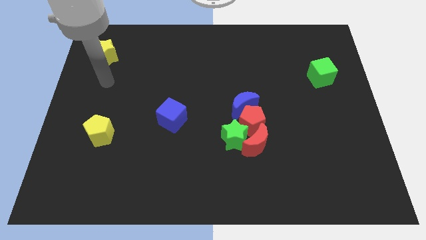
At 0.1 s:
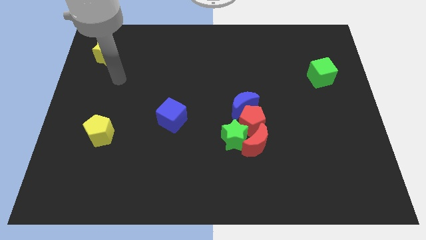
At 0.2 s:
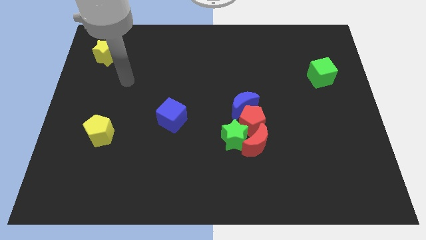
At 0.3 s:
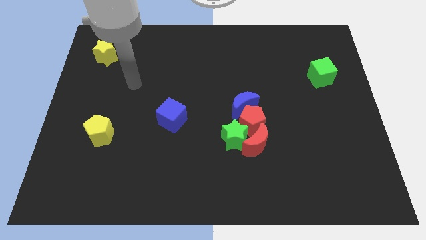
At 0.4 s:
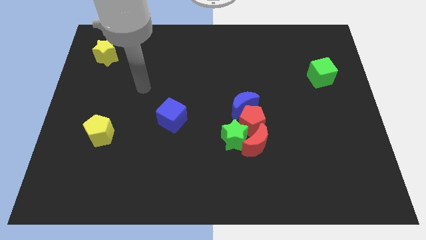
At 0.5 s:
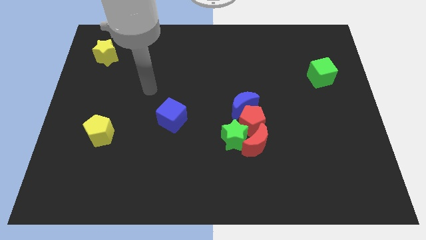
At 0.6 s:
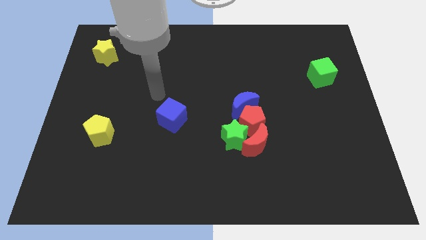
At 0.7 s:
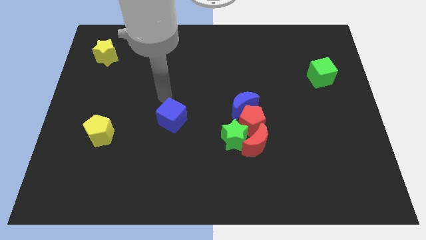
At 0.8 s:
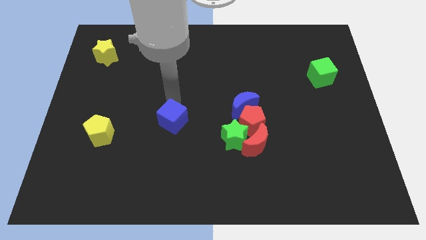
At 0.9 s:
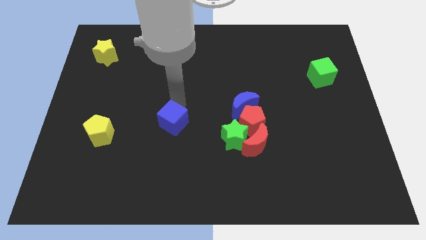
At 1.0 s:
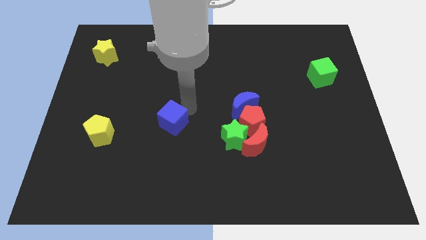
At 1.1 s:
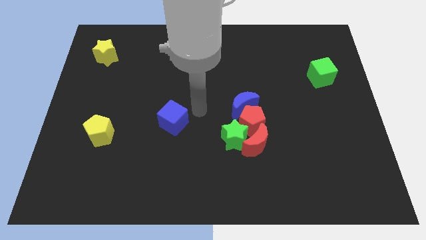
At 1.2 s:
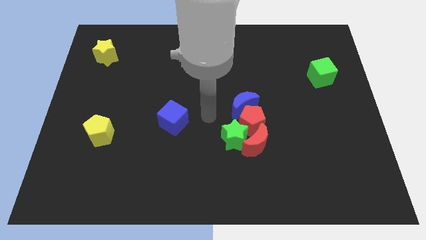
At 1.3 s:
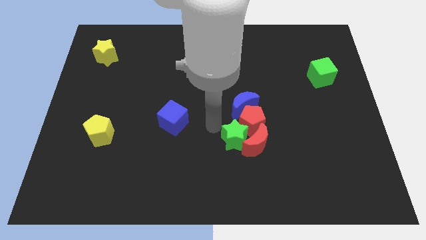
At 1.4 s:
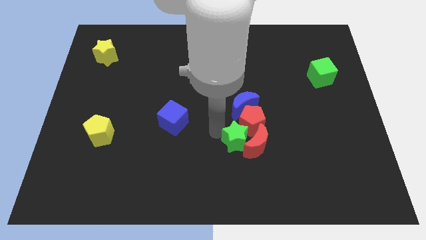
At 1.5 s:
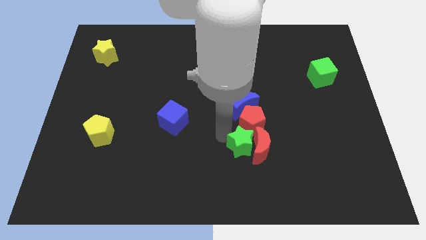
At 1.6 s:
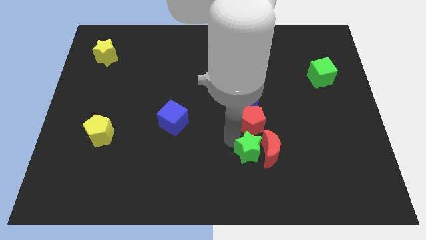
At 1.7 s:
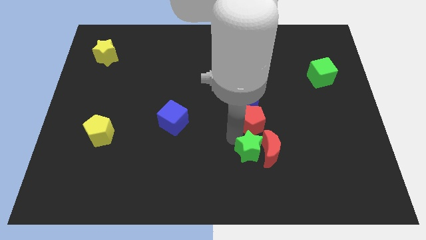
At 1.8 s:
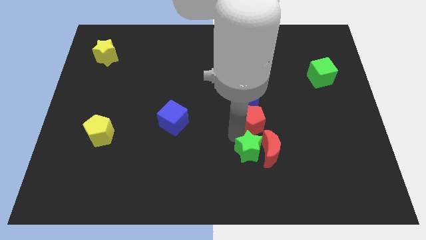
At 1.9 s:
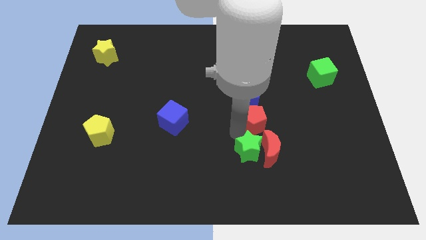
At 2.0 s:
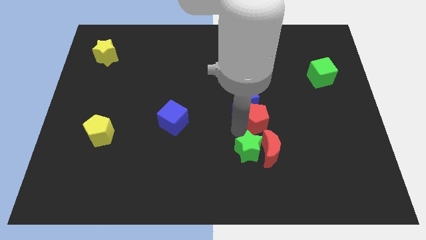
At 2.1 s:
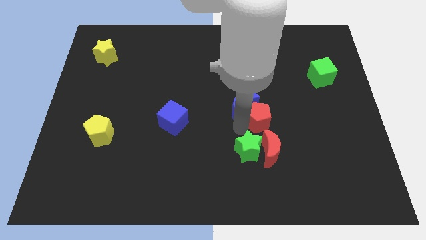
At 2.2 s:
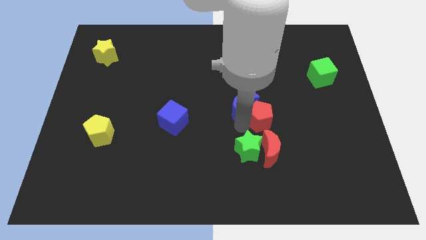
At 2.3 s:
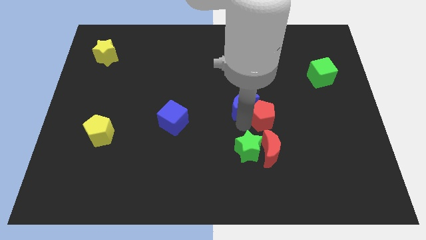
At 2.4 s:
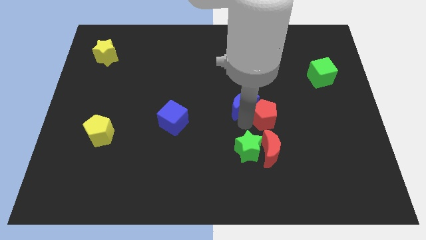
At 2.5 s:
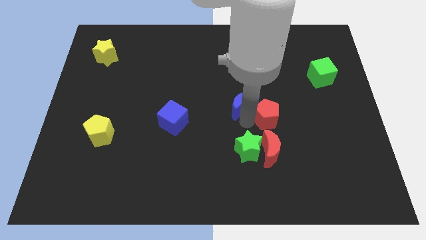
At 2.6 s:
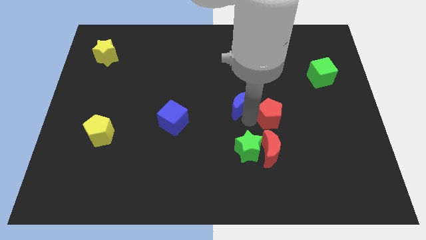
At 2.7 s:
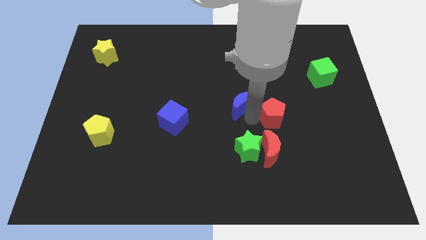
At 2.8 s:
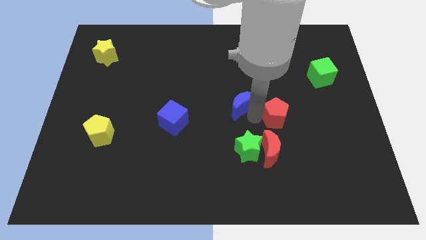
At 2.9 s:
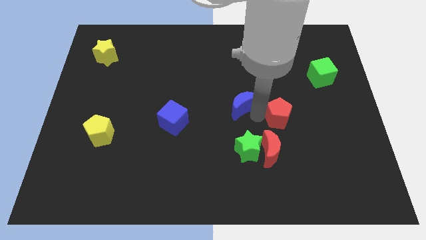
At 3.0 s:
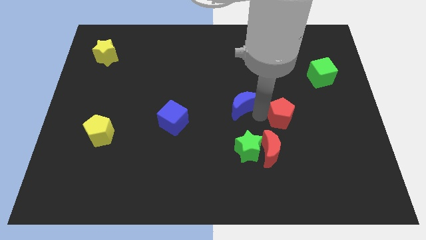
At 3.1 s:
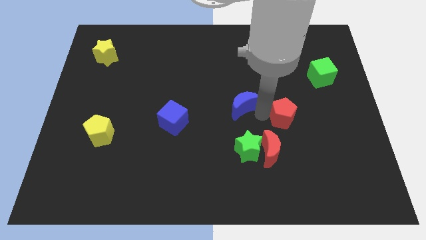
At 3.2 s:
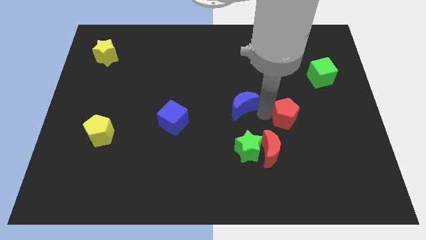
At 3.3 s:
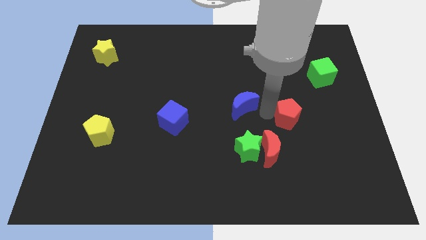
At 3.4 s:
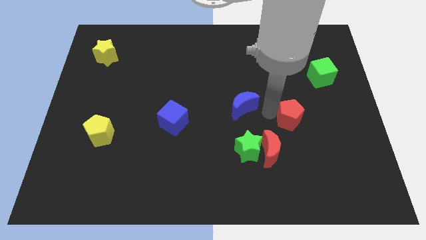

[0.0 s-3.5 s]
separate the red pentagon from the group of blocks

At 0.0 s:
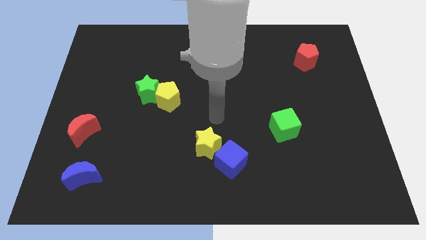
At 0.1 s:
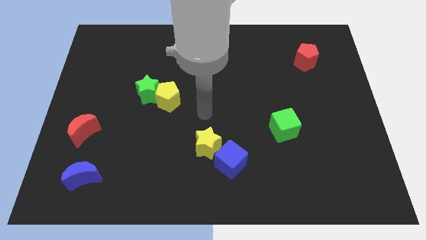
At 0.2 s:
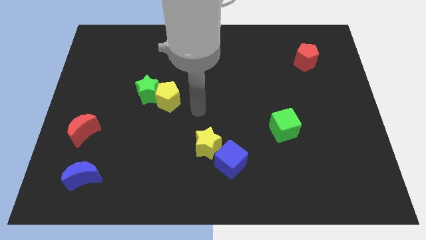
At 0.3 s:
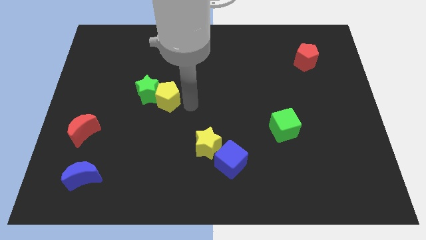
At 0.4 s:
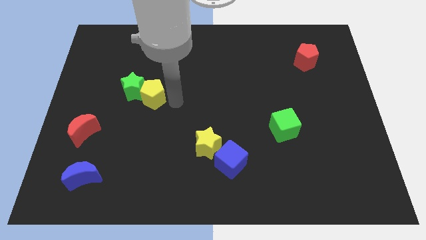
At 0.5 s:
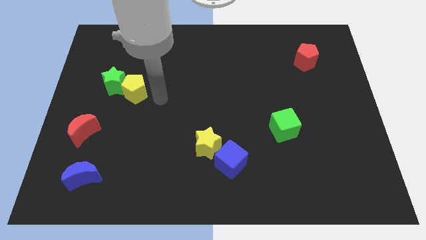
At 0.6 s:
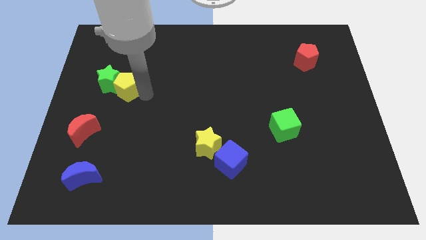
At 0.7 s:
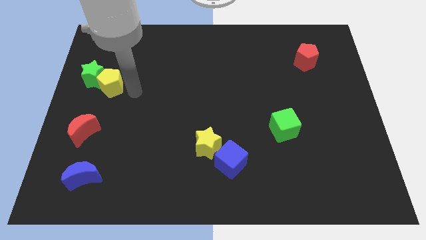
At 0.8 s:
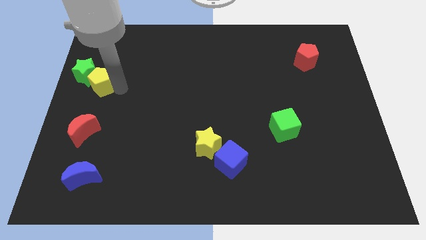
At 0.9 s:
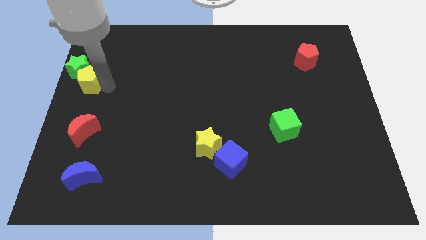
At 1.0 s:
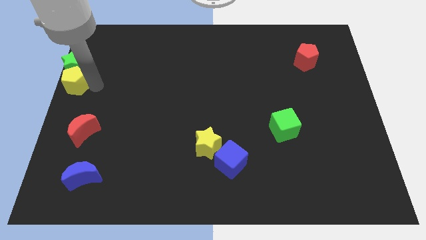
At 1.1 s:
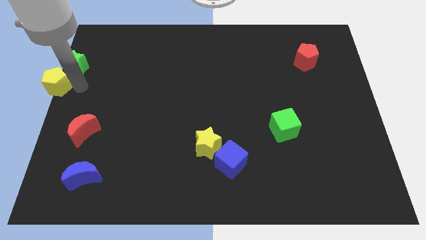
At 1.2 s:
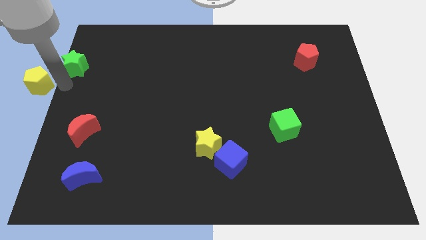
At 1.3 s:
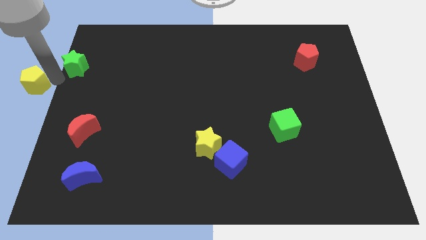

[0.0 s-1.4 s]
separate the green star from the yellow pentagon

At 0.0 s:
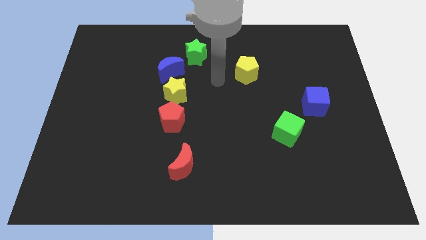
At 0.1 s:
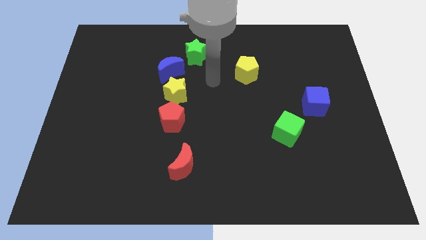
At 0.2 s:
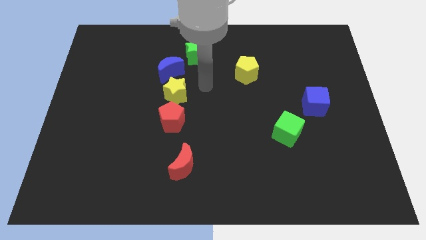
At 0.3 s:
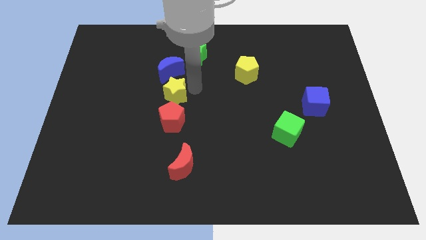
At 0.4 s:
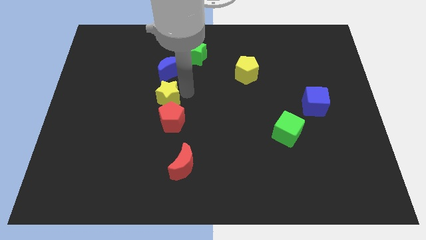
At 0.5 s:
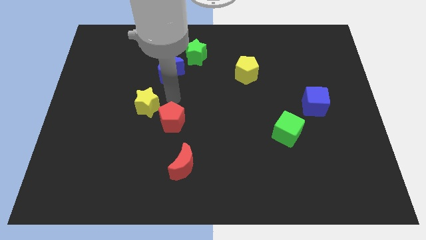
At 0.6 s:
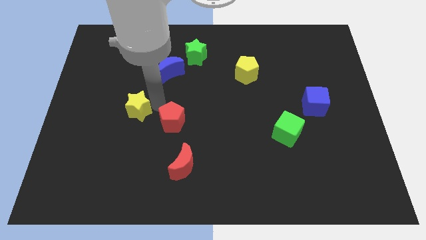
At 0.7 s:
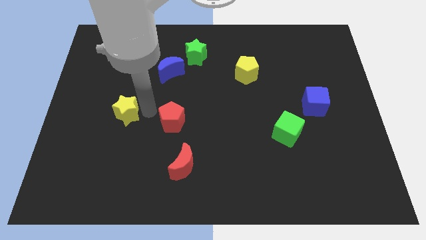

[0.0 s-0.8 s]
separate the red pentagon from the yellow star

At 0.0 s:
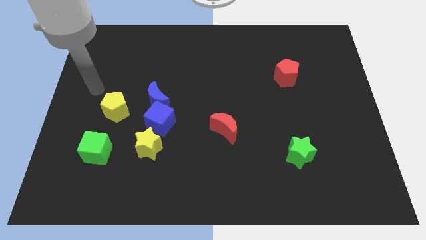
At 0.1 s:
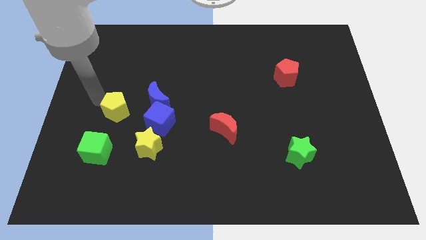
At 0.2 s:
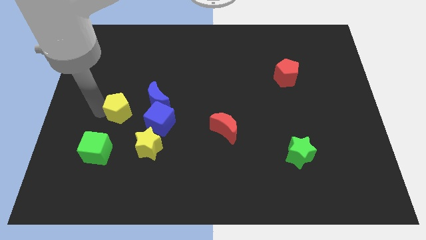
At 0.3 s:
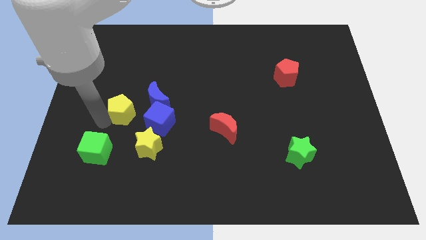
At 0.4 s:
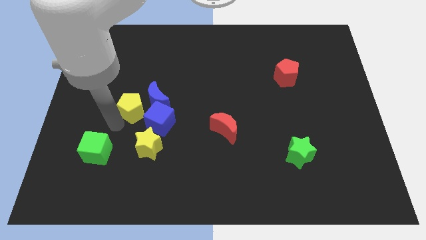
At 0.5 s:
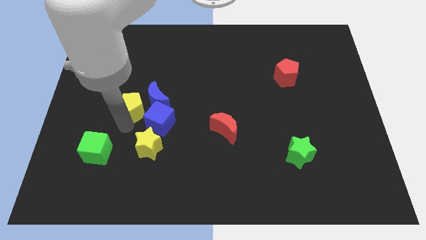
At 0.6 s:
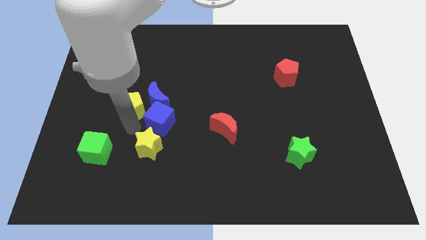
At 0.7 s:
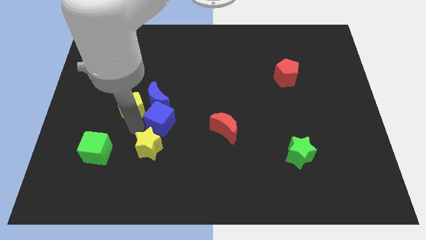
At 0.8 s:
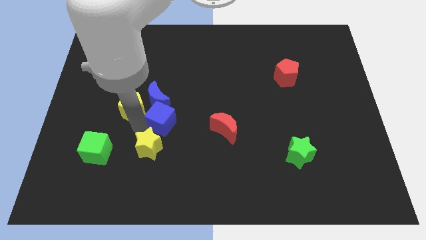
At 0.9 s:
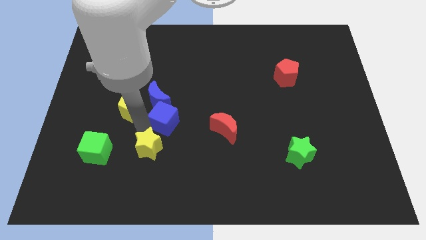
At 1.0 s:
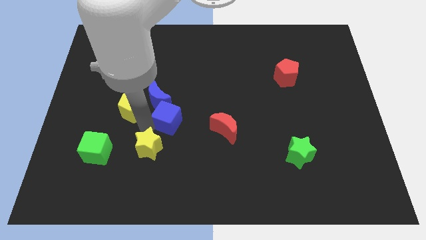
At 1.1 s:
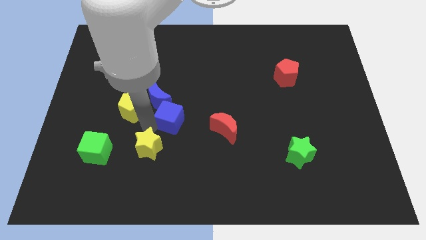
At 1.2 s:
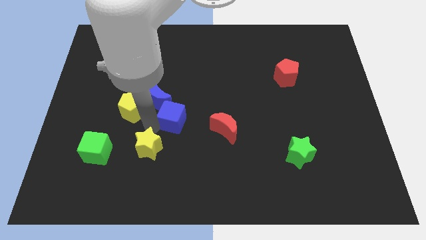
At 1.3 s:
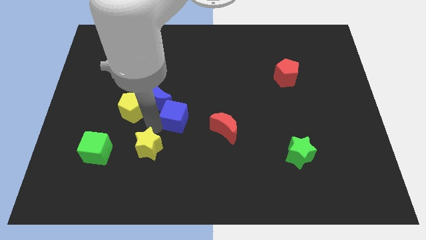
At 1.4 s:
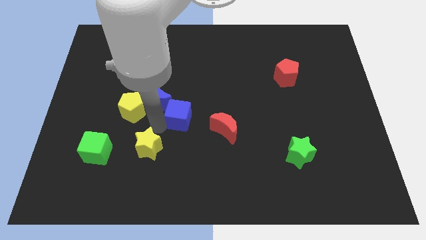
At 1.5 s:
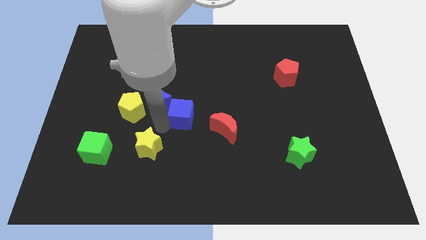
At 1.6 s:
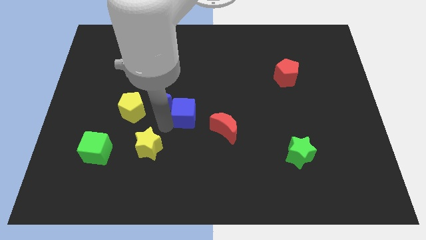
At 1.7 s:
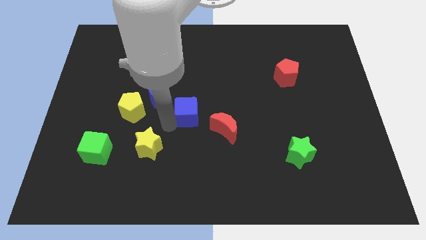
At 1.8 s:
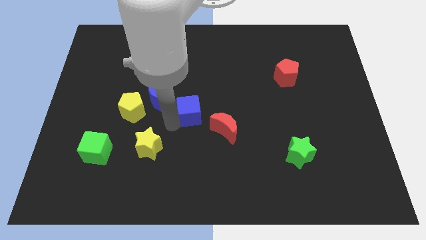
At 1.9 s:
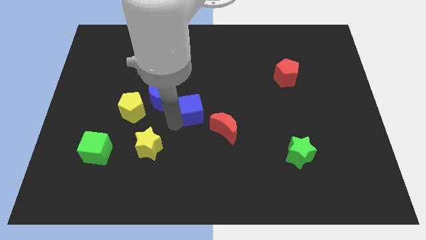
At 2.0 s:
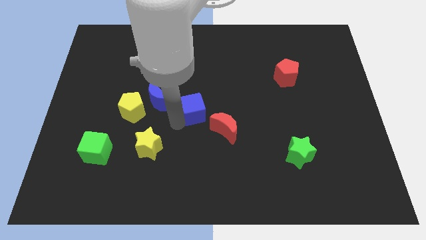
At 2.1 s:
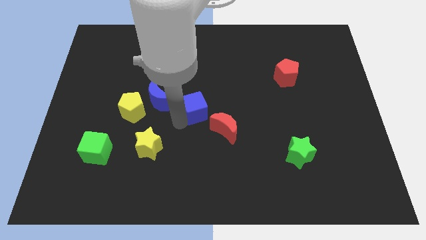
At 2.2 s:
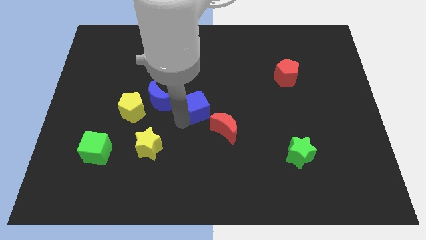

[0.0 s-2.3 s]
move the blue cube away from the blue moon and yellow star

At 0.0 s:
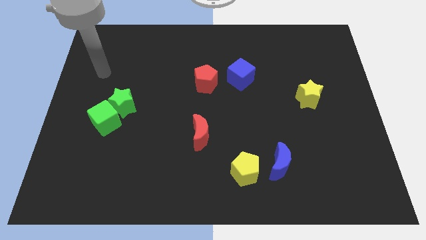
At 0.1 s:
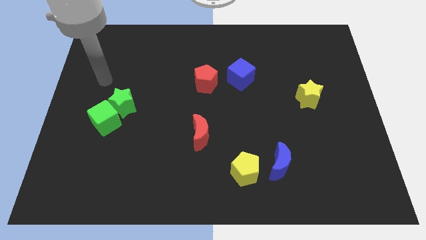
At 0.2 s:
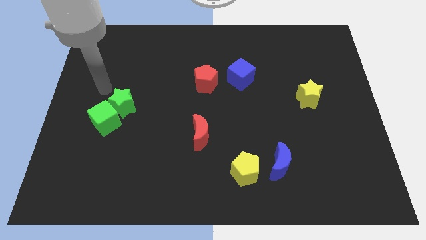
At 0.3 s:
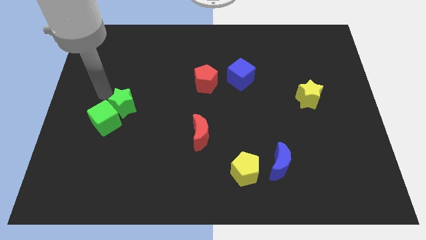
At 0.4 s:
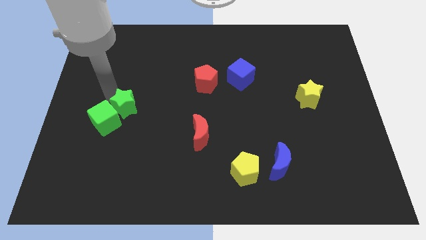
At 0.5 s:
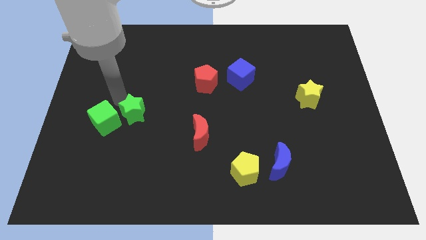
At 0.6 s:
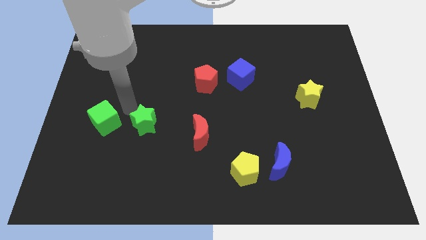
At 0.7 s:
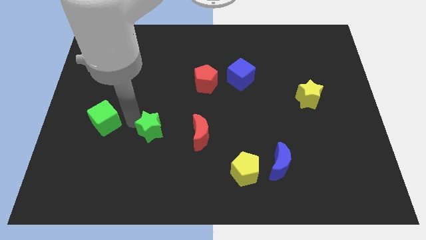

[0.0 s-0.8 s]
pull the green cube apart from the green star

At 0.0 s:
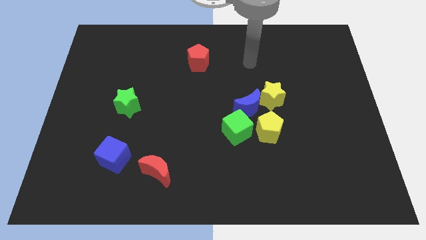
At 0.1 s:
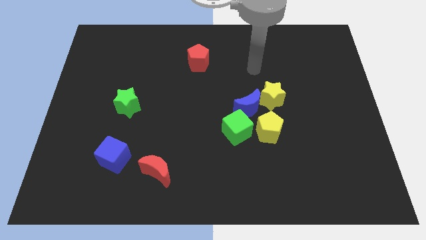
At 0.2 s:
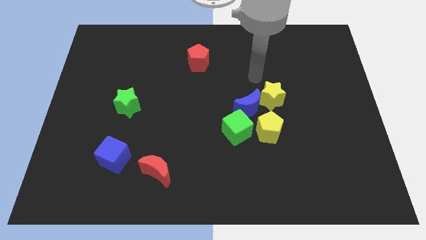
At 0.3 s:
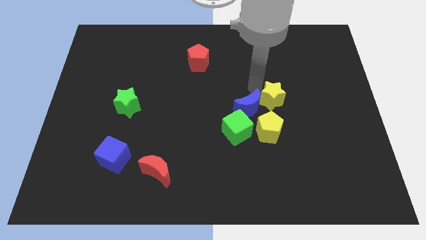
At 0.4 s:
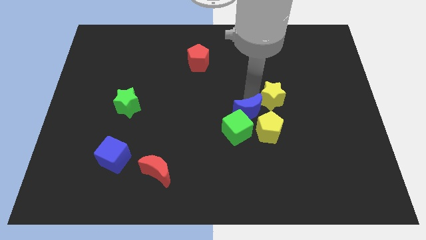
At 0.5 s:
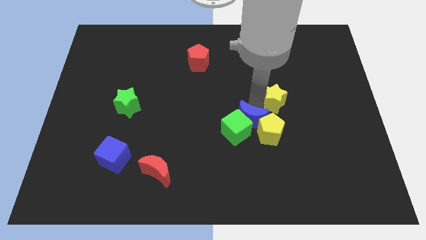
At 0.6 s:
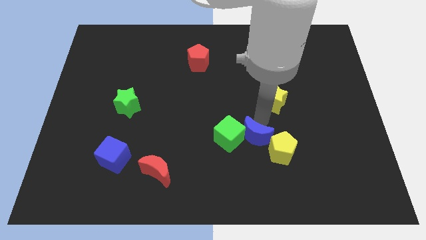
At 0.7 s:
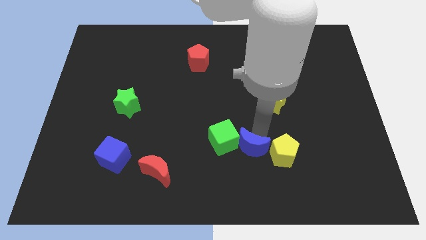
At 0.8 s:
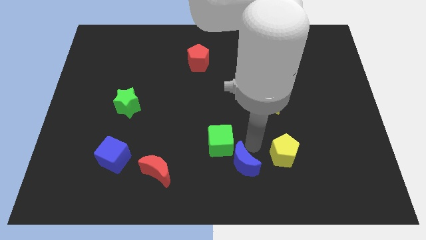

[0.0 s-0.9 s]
separate the green cube from the blue moon and yellow pentagon
